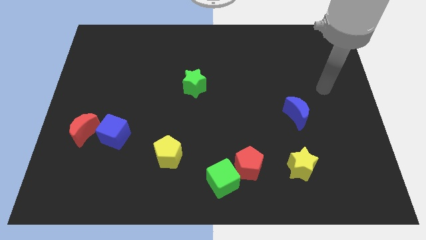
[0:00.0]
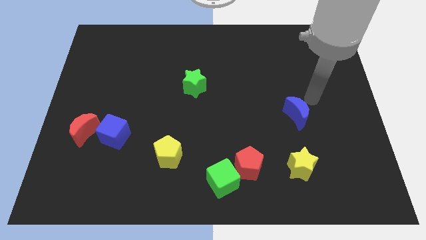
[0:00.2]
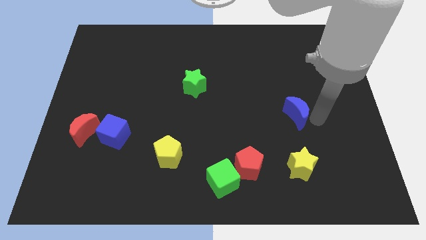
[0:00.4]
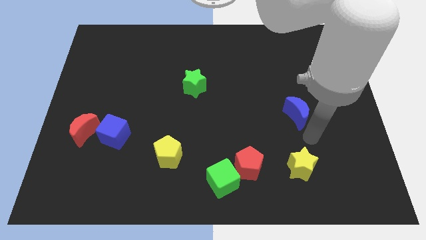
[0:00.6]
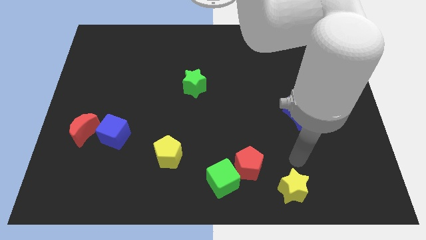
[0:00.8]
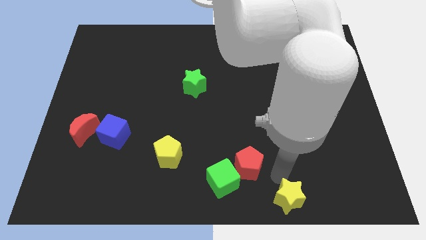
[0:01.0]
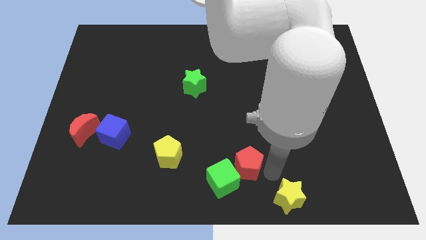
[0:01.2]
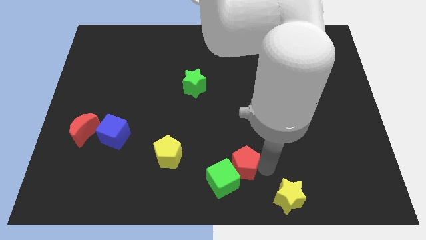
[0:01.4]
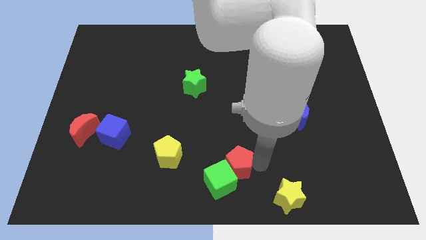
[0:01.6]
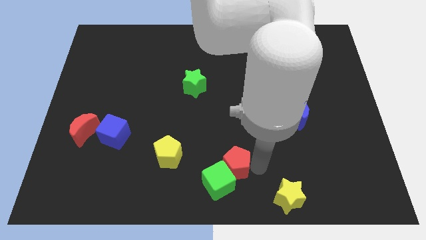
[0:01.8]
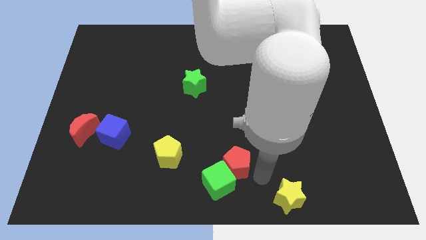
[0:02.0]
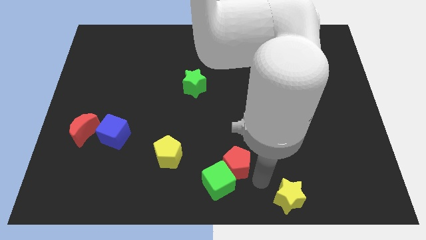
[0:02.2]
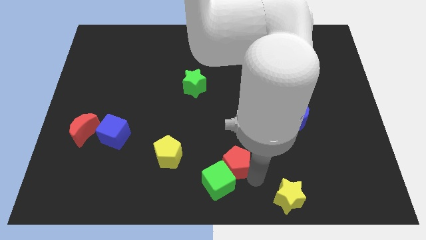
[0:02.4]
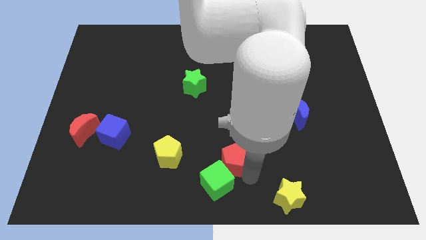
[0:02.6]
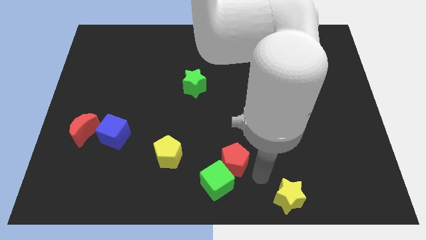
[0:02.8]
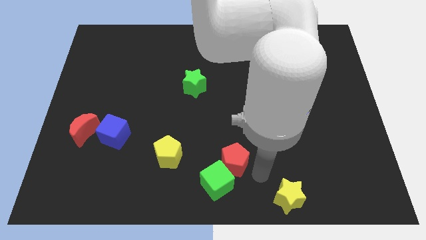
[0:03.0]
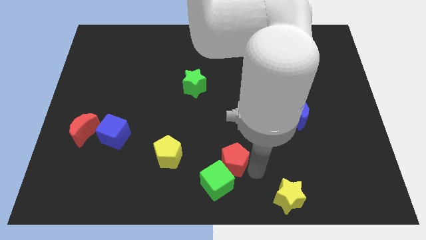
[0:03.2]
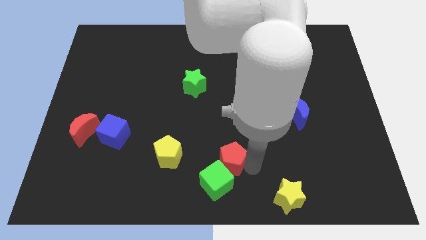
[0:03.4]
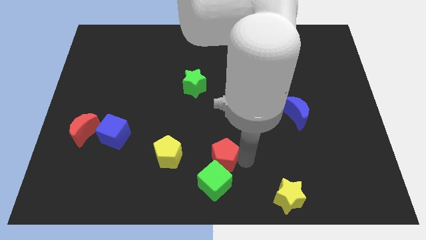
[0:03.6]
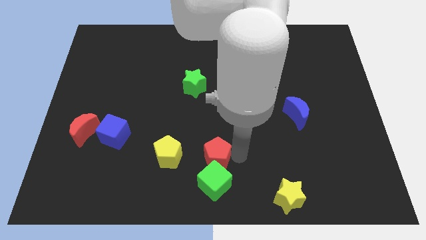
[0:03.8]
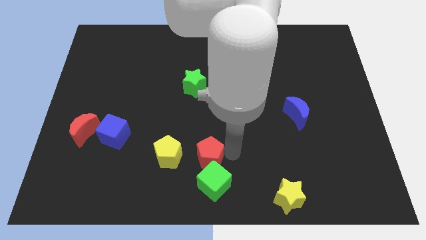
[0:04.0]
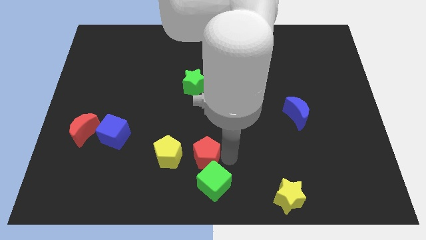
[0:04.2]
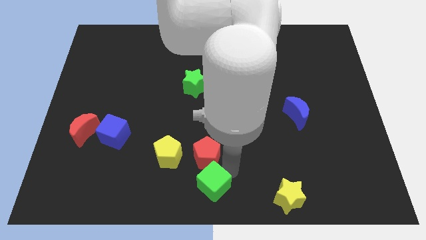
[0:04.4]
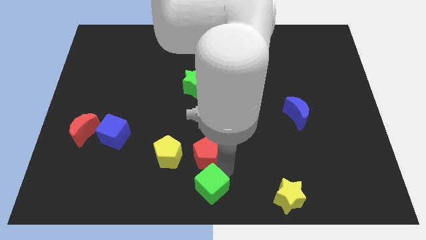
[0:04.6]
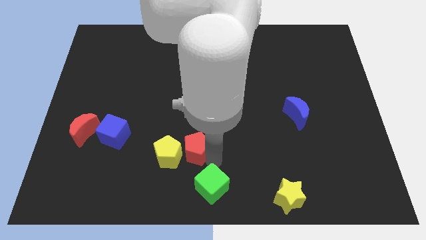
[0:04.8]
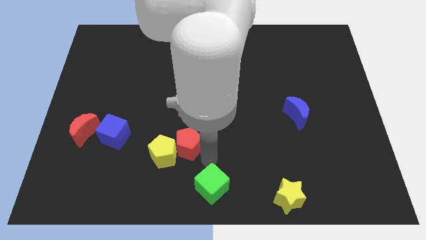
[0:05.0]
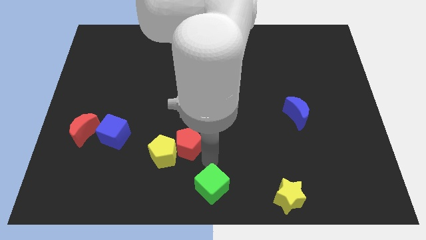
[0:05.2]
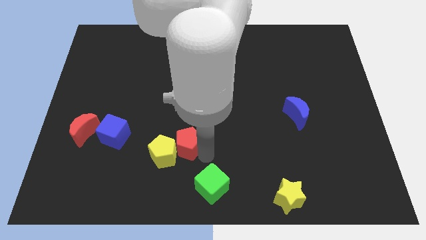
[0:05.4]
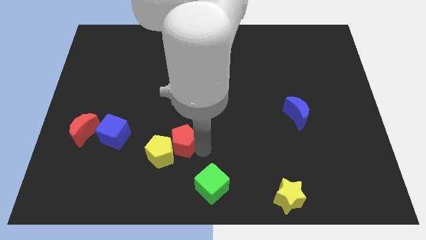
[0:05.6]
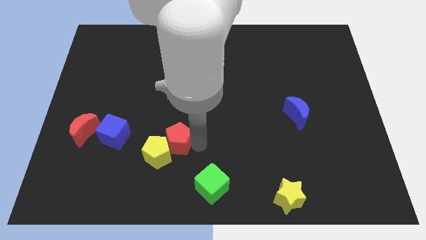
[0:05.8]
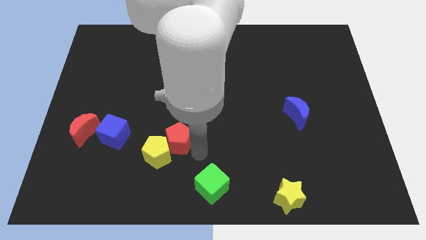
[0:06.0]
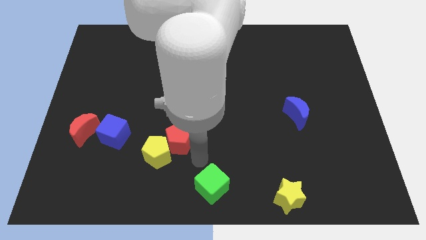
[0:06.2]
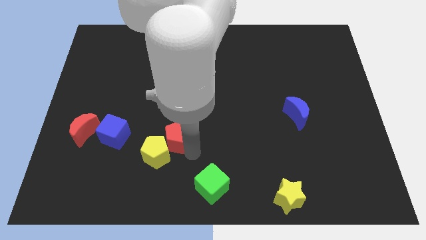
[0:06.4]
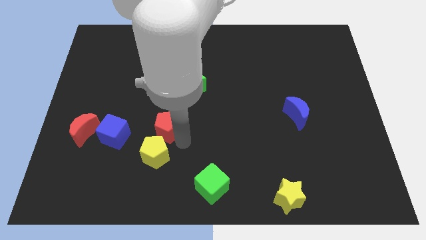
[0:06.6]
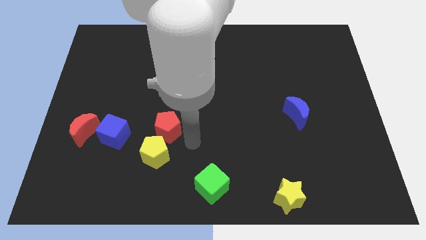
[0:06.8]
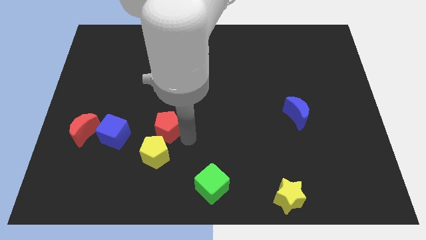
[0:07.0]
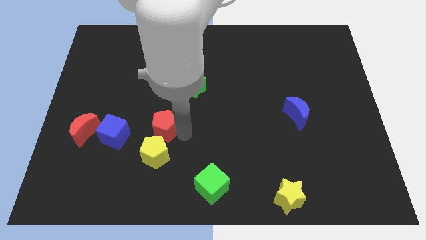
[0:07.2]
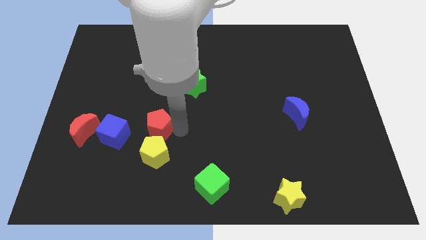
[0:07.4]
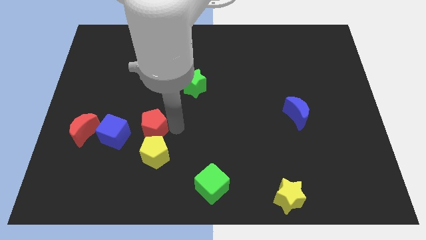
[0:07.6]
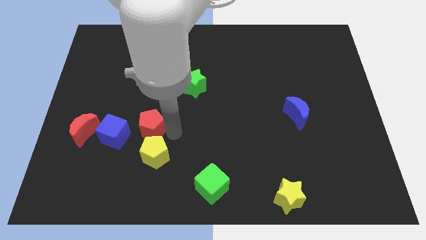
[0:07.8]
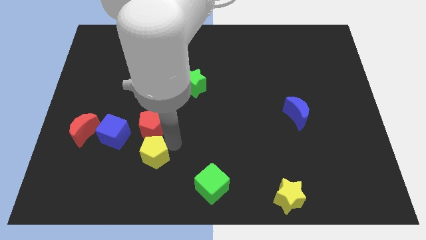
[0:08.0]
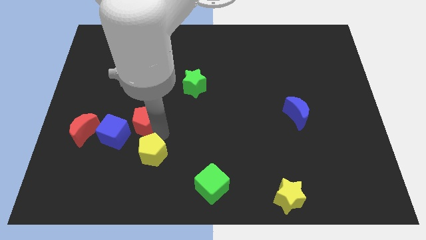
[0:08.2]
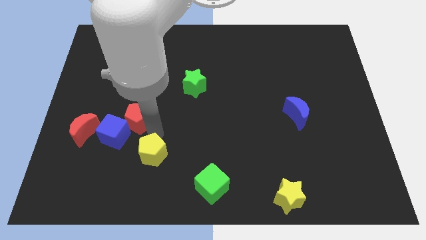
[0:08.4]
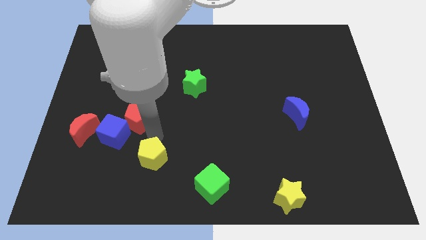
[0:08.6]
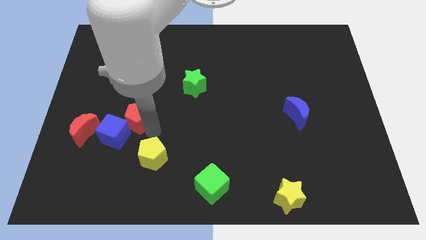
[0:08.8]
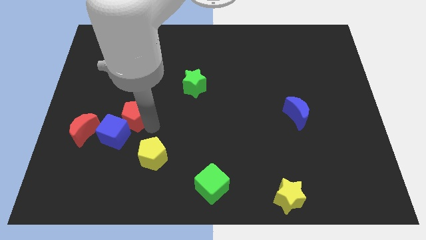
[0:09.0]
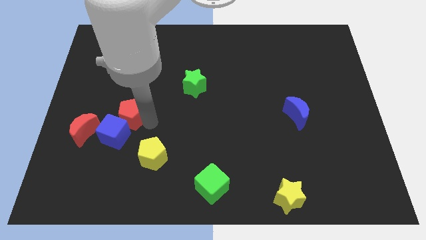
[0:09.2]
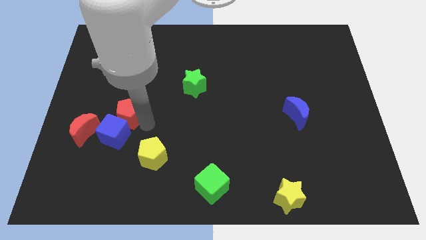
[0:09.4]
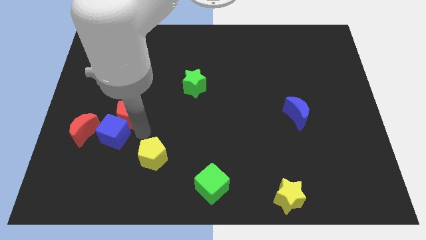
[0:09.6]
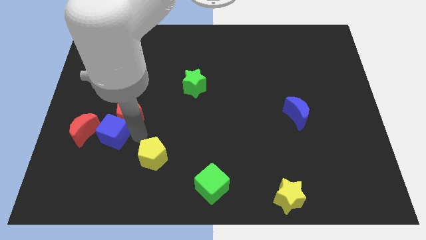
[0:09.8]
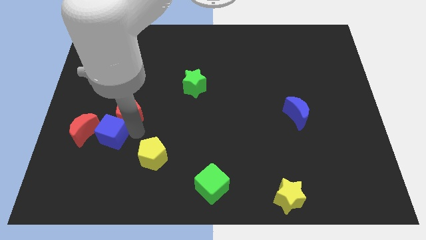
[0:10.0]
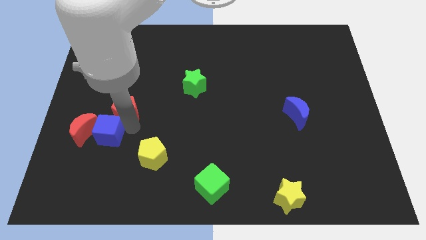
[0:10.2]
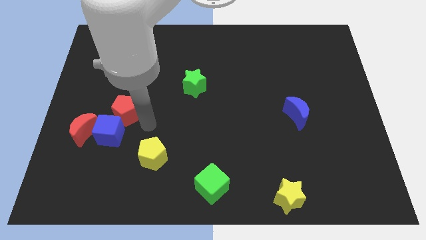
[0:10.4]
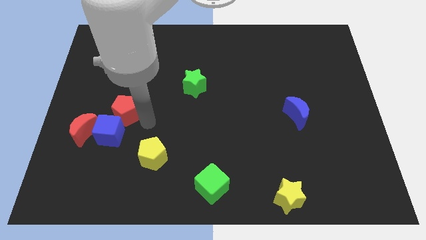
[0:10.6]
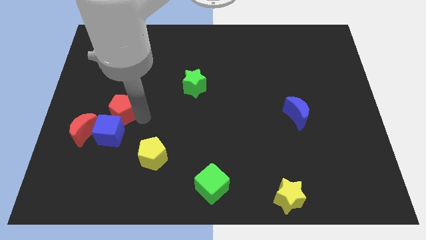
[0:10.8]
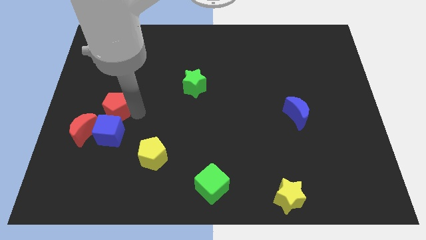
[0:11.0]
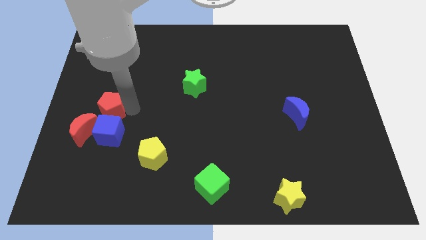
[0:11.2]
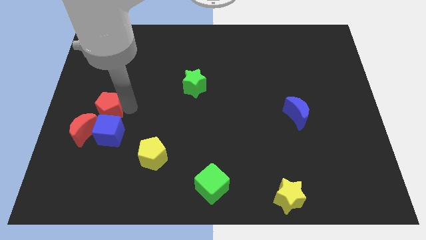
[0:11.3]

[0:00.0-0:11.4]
slide the red pentagon above the red moon
